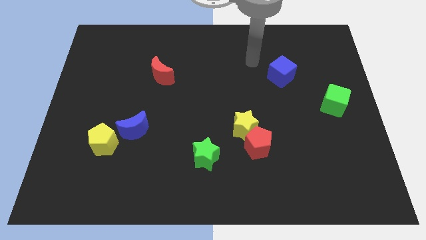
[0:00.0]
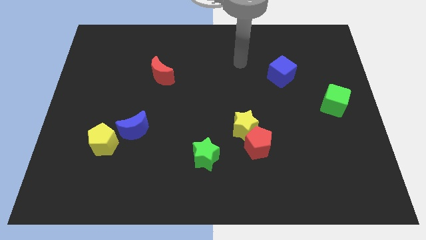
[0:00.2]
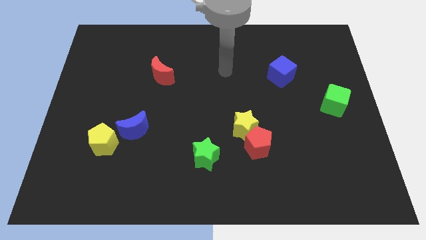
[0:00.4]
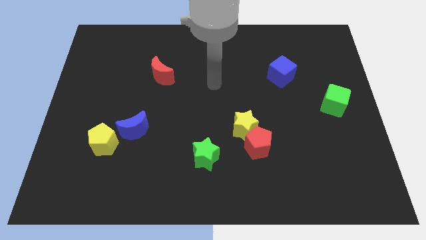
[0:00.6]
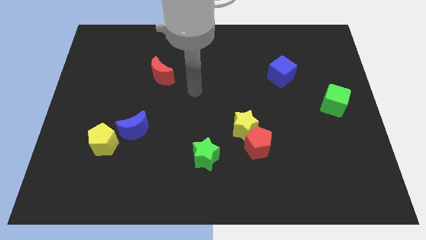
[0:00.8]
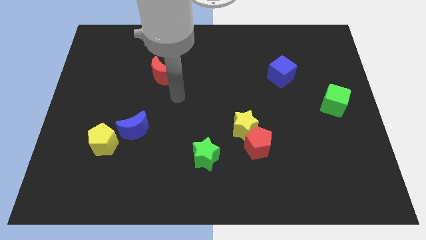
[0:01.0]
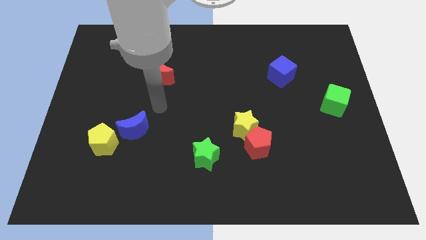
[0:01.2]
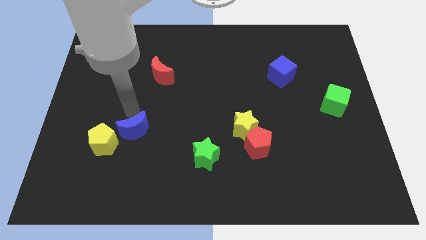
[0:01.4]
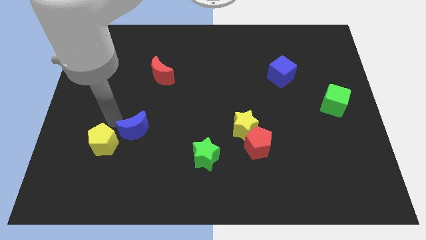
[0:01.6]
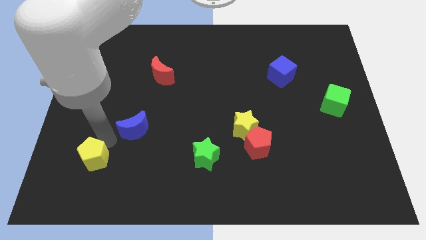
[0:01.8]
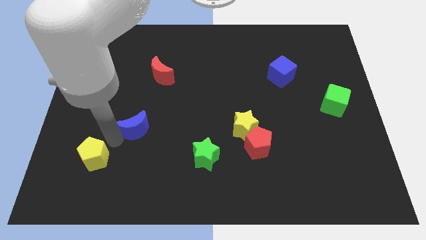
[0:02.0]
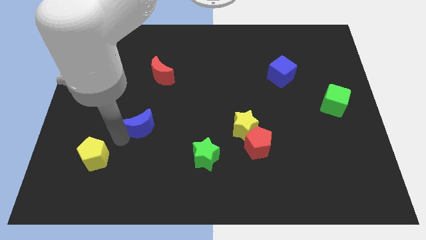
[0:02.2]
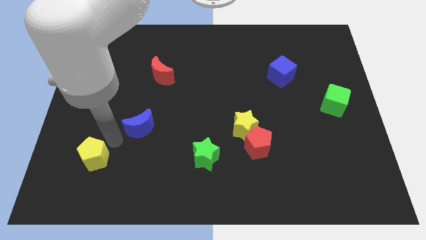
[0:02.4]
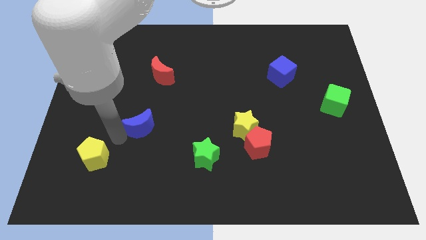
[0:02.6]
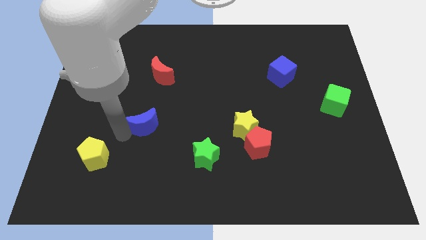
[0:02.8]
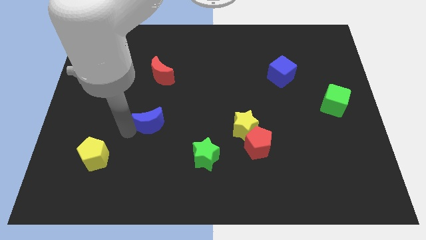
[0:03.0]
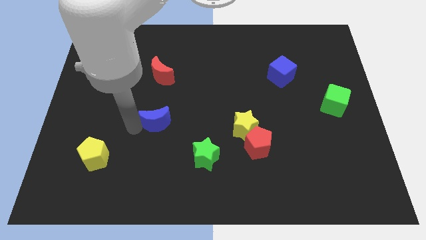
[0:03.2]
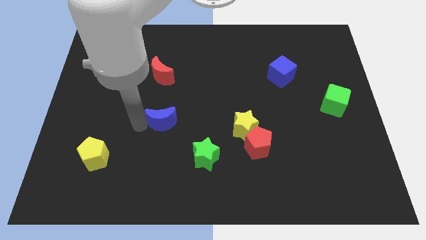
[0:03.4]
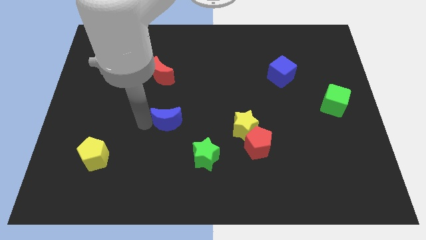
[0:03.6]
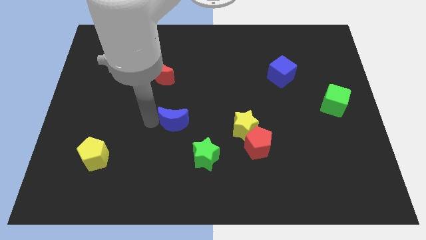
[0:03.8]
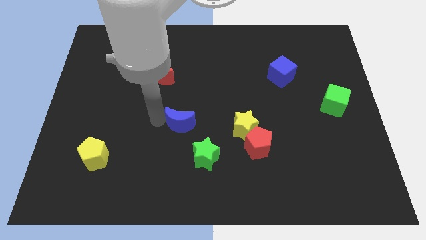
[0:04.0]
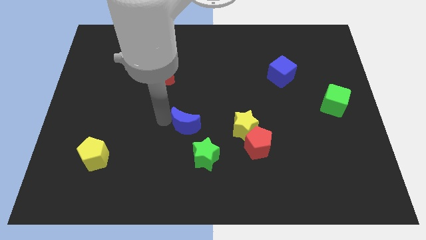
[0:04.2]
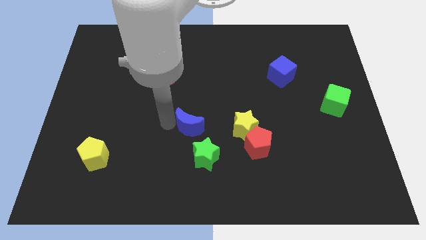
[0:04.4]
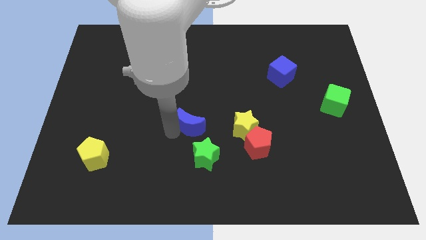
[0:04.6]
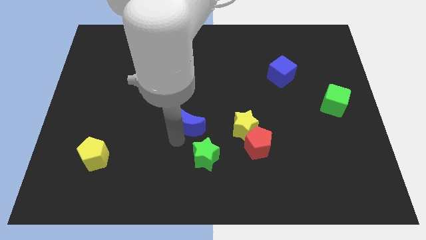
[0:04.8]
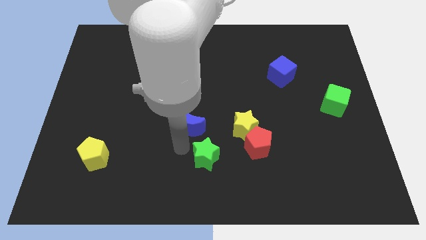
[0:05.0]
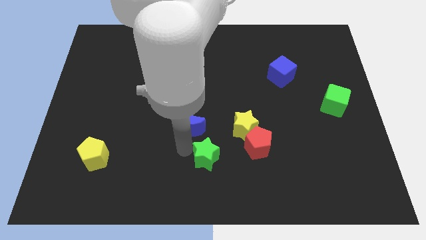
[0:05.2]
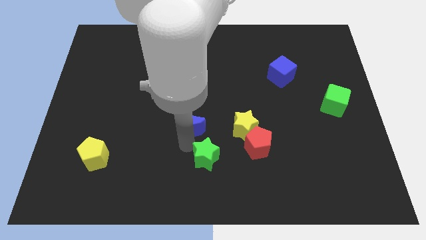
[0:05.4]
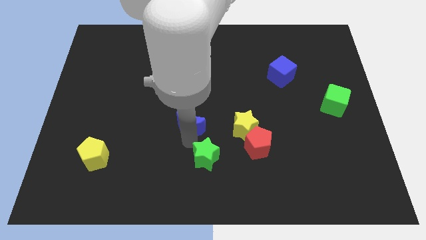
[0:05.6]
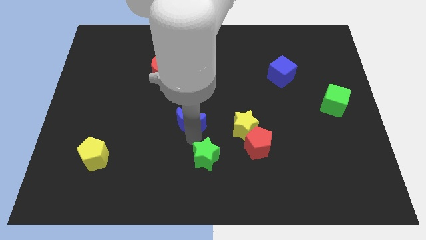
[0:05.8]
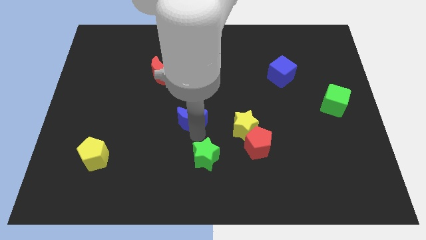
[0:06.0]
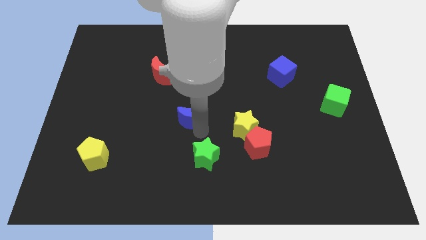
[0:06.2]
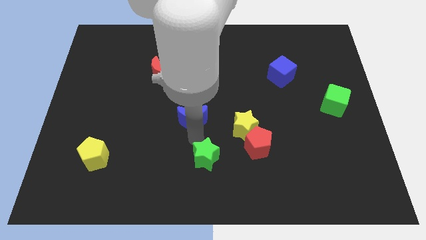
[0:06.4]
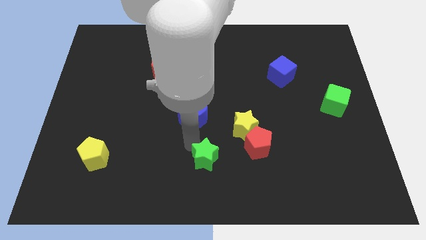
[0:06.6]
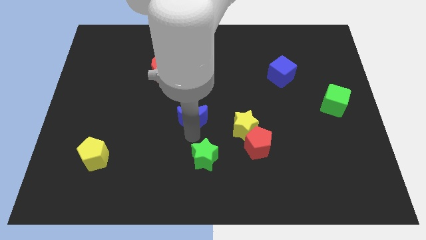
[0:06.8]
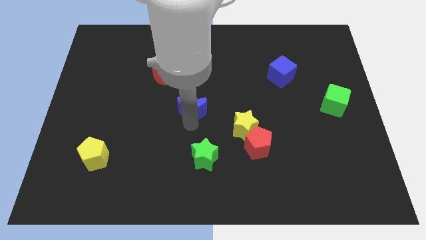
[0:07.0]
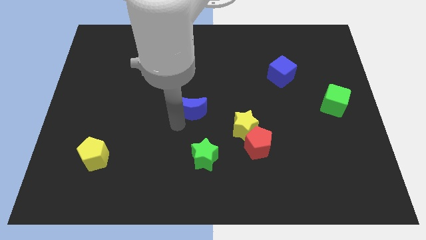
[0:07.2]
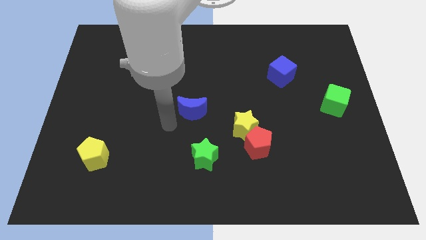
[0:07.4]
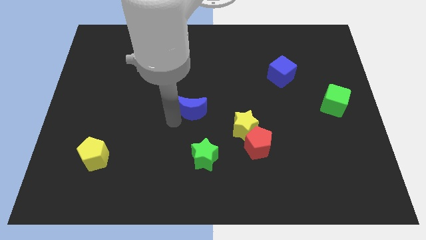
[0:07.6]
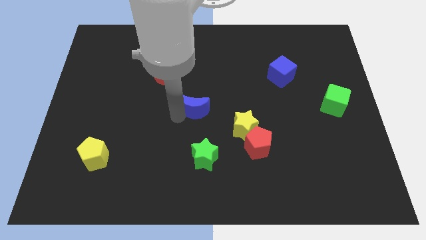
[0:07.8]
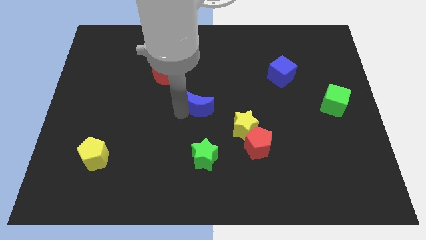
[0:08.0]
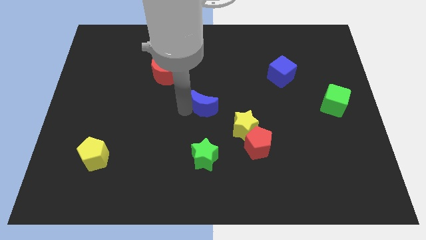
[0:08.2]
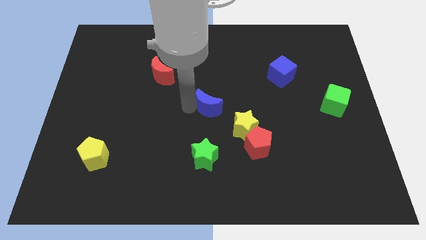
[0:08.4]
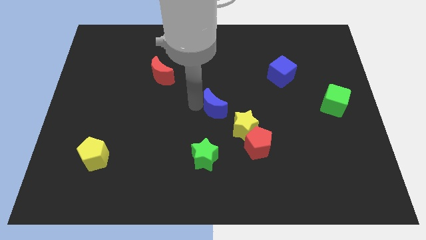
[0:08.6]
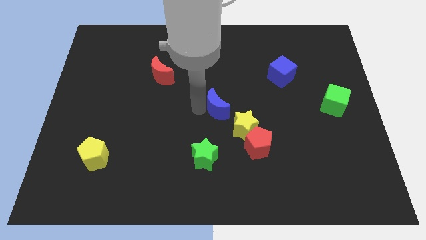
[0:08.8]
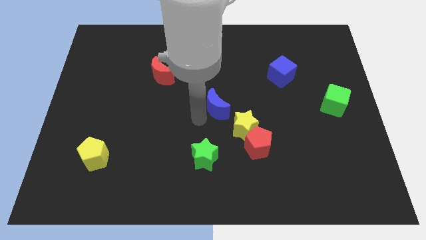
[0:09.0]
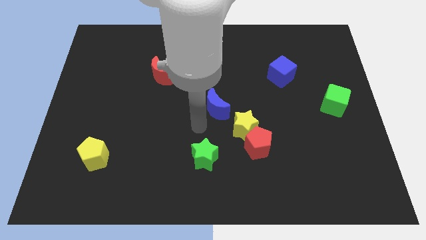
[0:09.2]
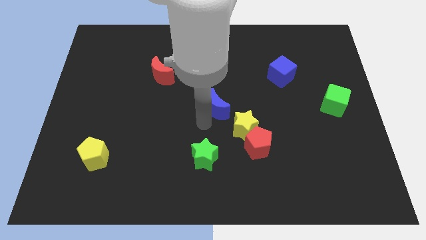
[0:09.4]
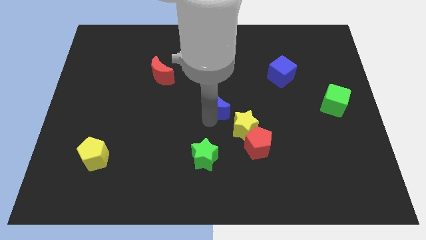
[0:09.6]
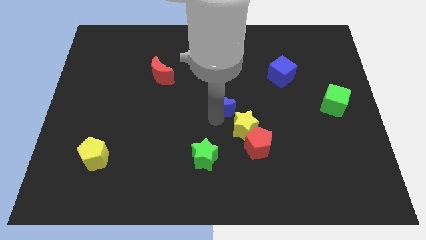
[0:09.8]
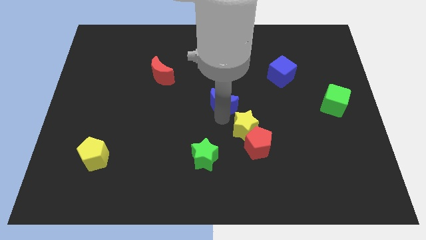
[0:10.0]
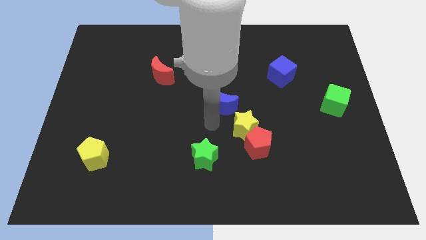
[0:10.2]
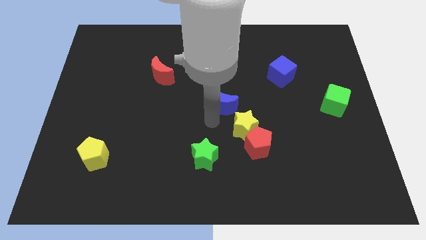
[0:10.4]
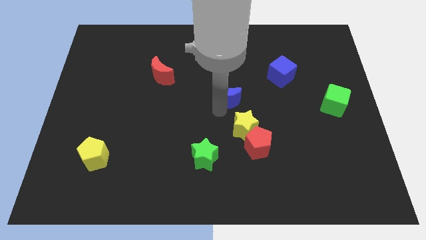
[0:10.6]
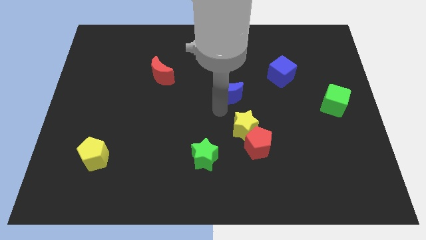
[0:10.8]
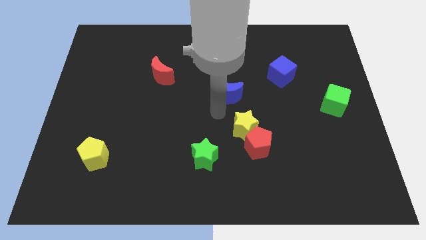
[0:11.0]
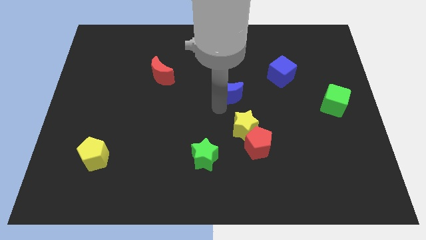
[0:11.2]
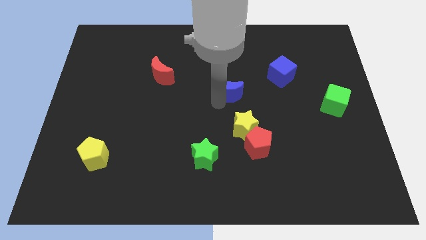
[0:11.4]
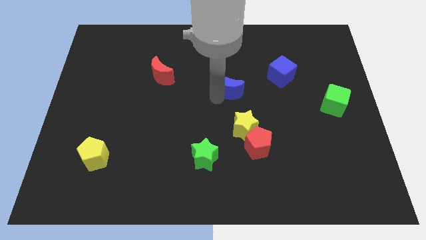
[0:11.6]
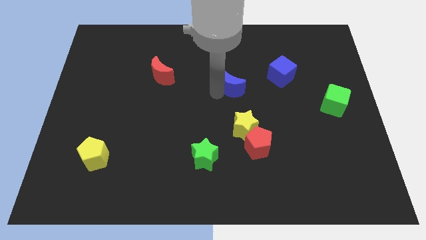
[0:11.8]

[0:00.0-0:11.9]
move the blue moon left of the blue cube

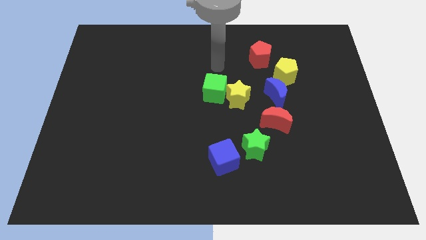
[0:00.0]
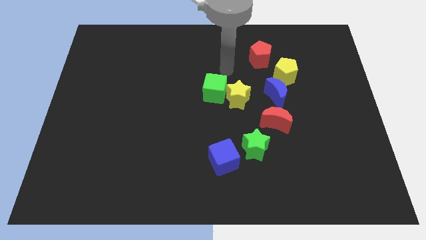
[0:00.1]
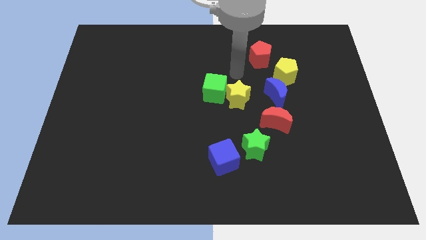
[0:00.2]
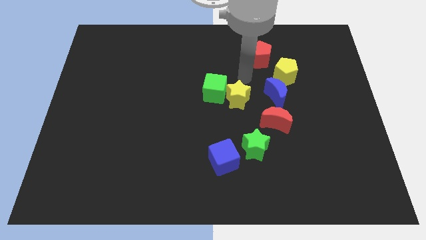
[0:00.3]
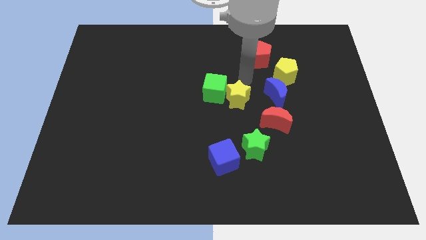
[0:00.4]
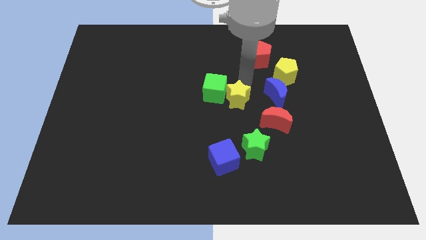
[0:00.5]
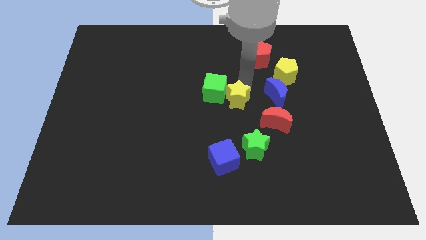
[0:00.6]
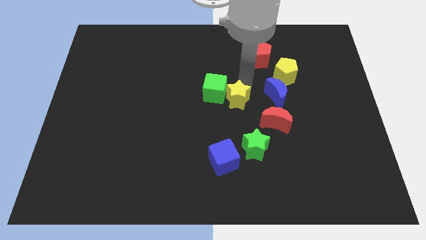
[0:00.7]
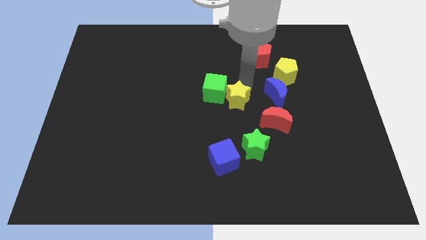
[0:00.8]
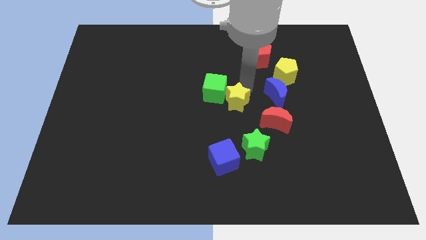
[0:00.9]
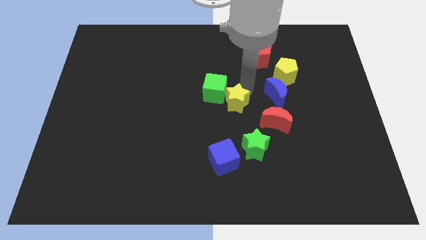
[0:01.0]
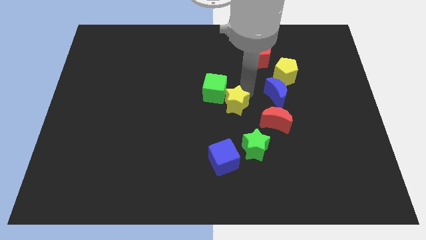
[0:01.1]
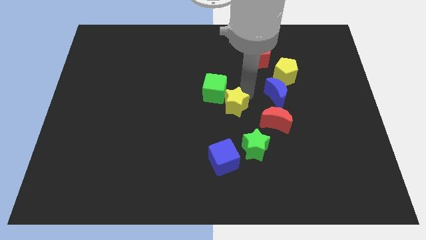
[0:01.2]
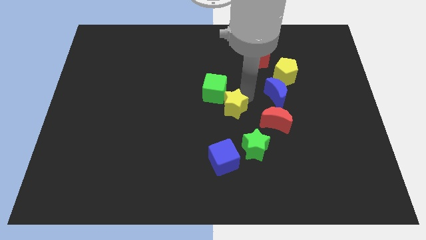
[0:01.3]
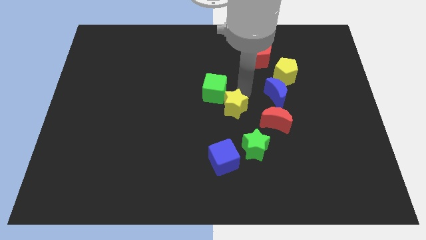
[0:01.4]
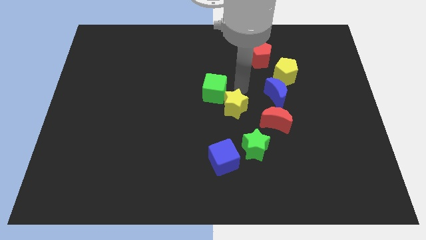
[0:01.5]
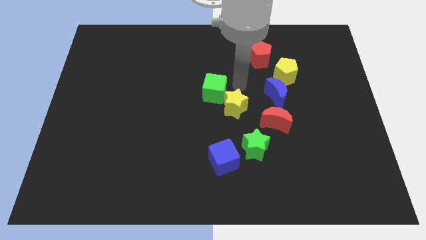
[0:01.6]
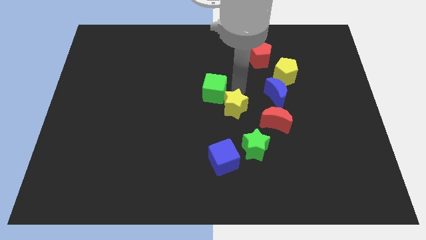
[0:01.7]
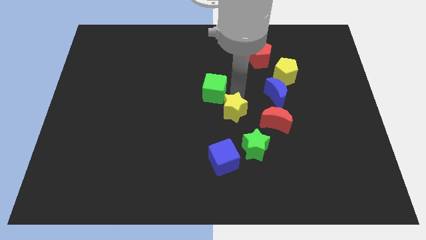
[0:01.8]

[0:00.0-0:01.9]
move the yellow star diagonally up and to the left of the green star
